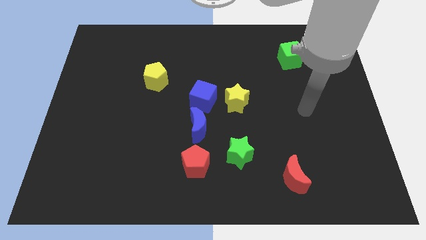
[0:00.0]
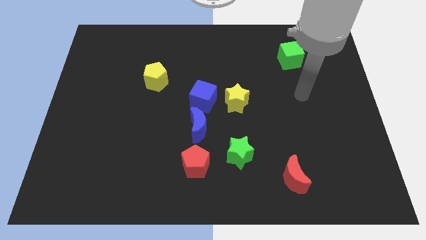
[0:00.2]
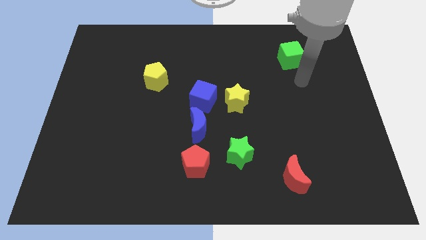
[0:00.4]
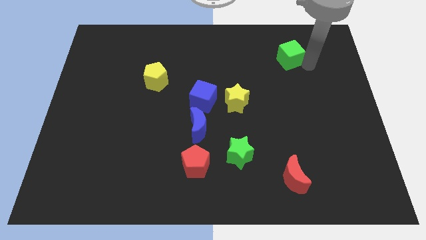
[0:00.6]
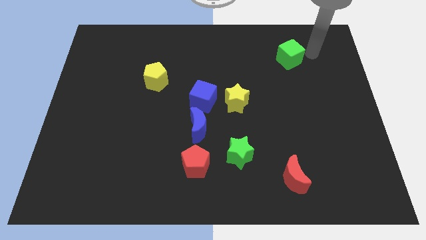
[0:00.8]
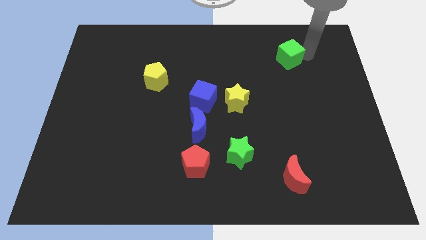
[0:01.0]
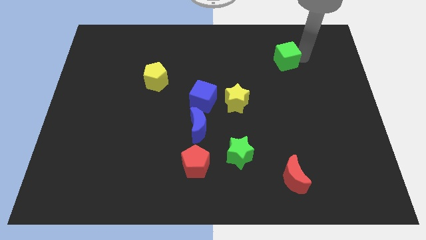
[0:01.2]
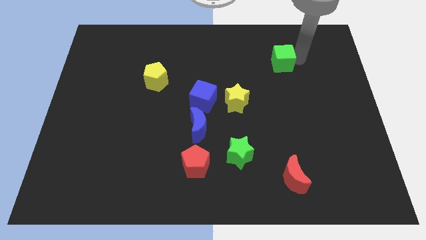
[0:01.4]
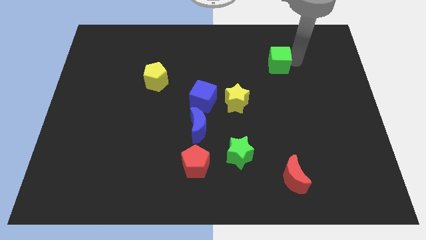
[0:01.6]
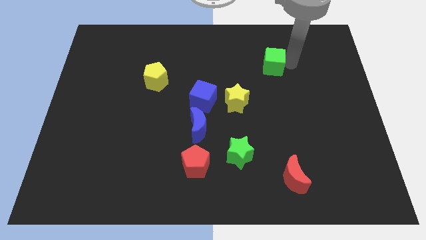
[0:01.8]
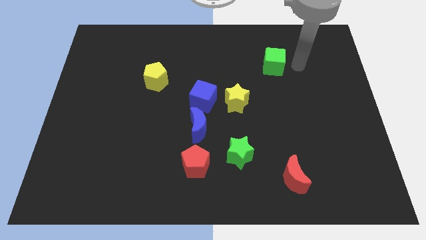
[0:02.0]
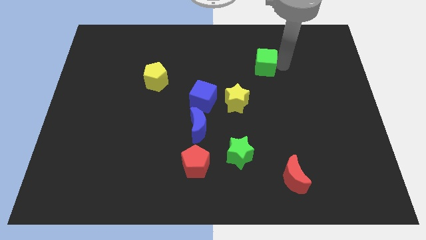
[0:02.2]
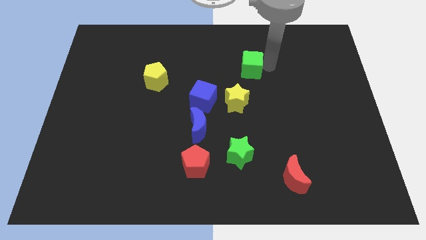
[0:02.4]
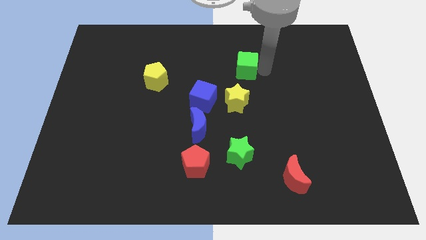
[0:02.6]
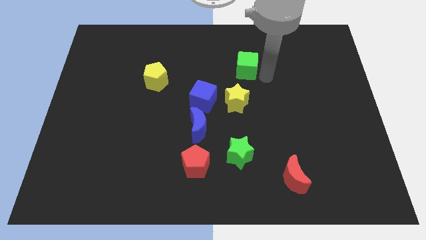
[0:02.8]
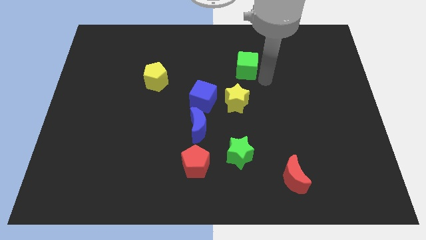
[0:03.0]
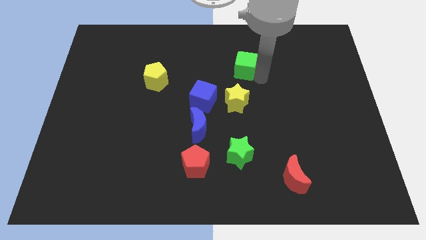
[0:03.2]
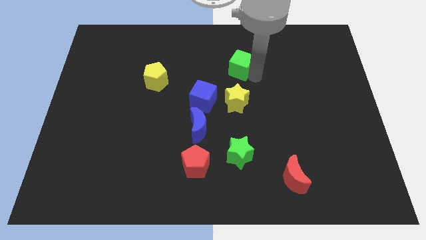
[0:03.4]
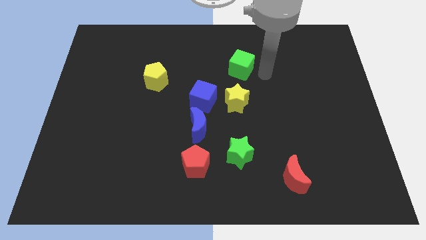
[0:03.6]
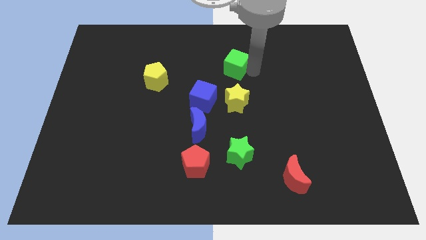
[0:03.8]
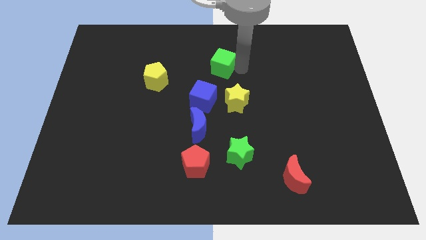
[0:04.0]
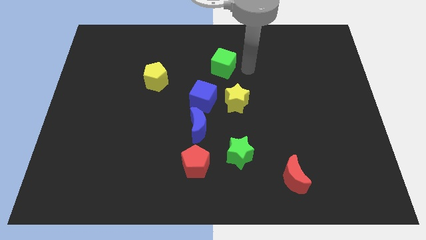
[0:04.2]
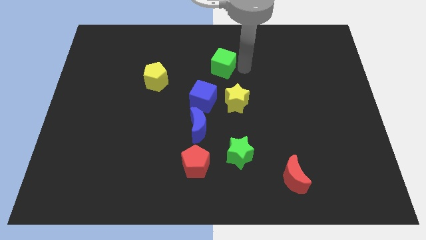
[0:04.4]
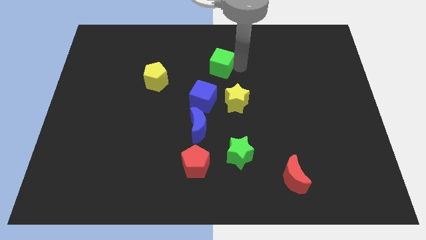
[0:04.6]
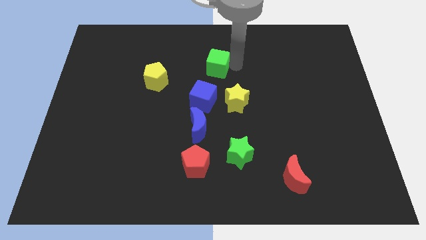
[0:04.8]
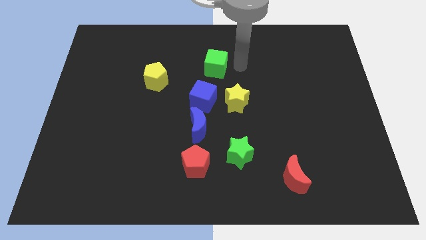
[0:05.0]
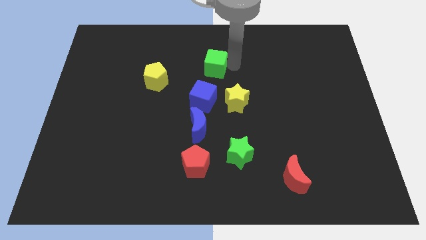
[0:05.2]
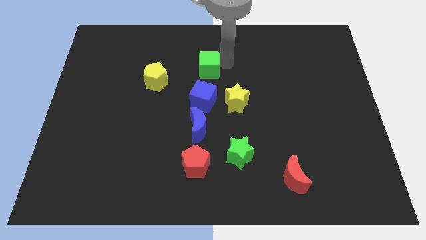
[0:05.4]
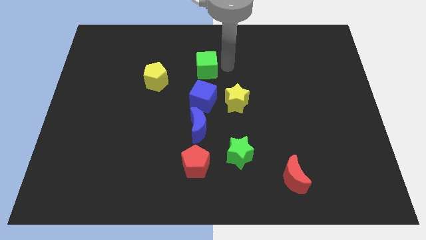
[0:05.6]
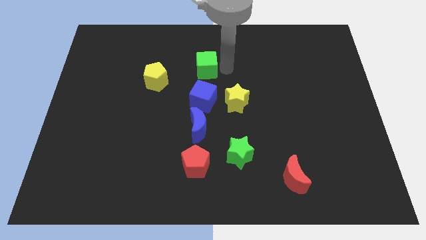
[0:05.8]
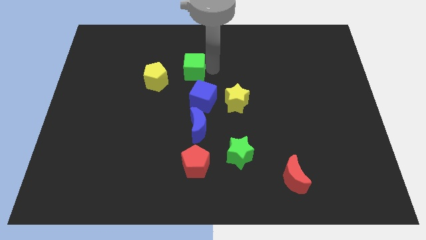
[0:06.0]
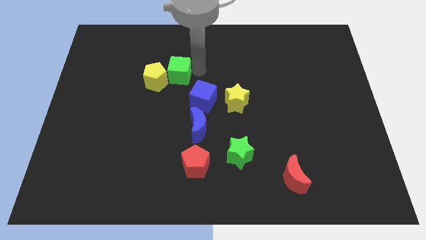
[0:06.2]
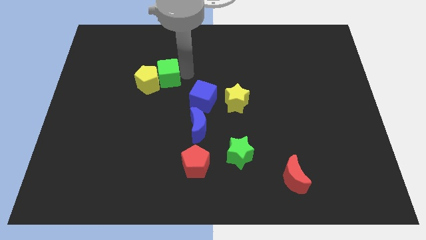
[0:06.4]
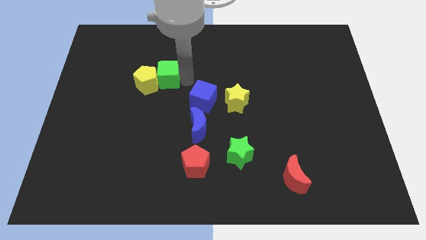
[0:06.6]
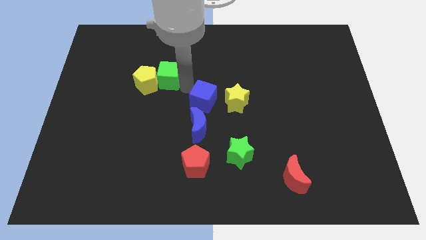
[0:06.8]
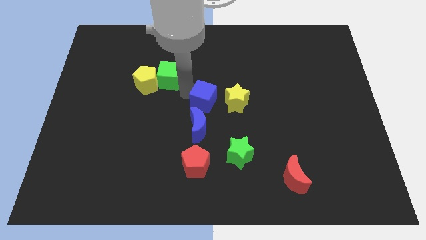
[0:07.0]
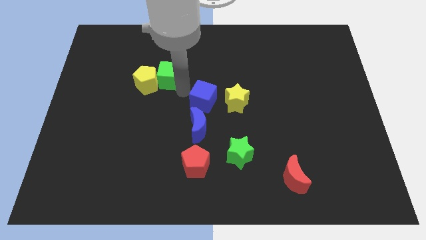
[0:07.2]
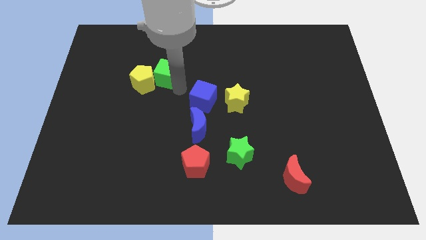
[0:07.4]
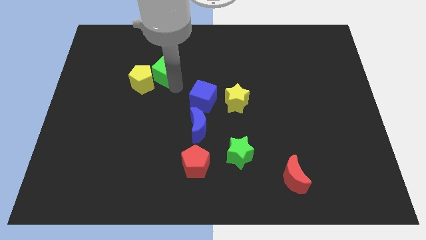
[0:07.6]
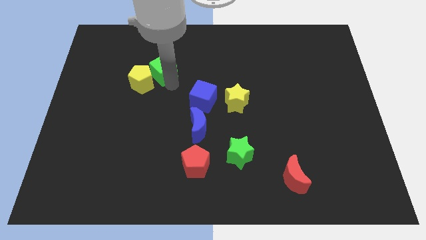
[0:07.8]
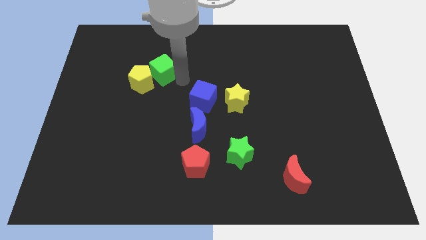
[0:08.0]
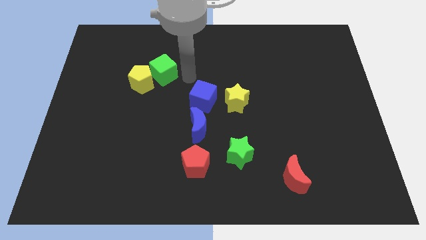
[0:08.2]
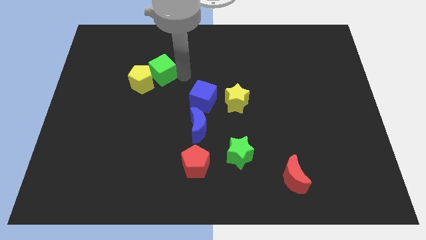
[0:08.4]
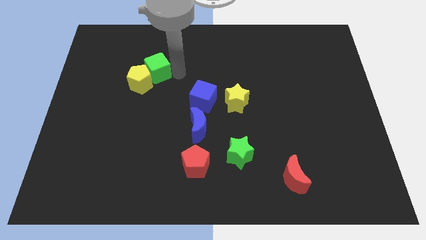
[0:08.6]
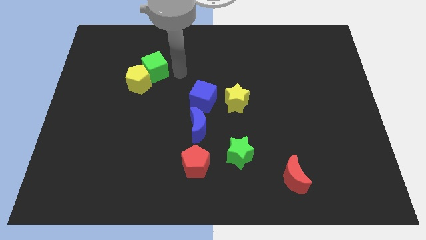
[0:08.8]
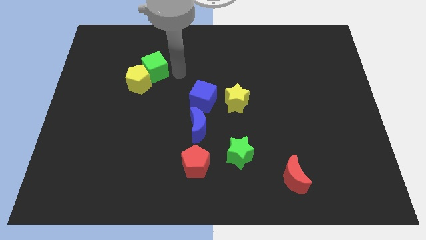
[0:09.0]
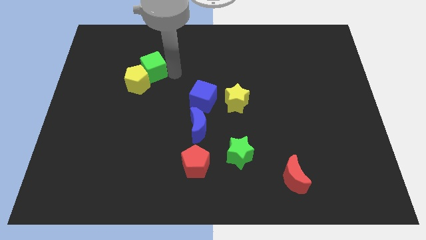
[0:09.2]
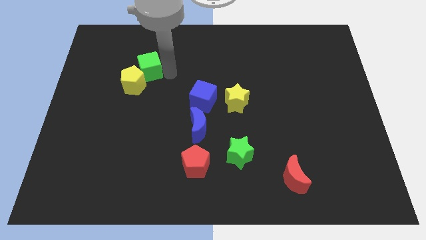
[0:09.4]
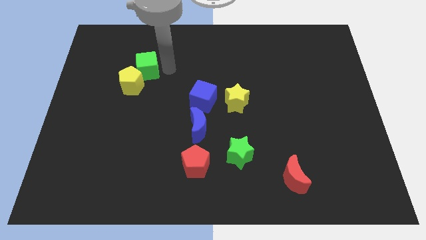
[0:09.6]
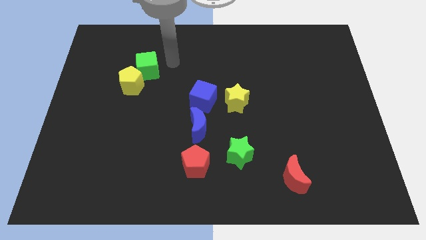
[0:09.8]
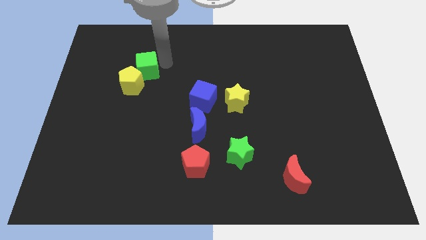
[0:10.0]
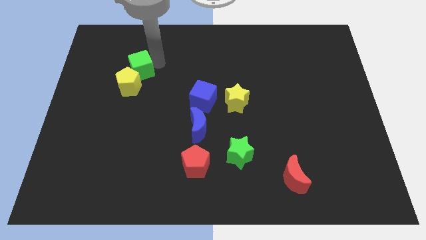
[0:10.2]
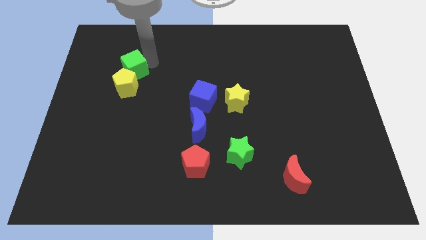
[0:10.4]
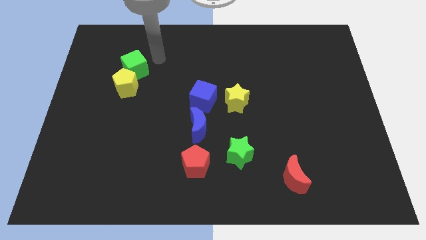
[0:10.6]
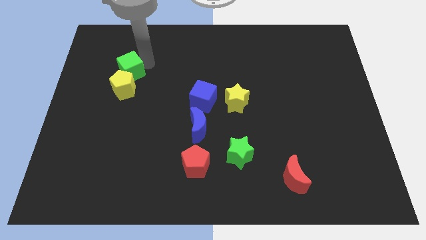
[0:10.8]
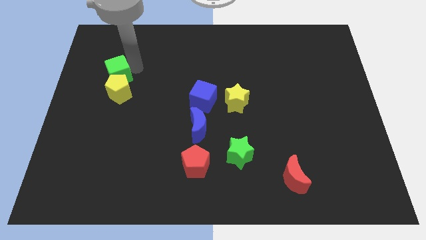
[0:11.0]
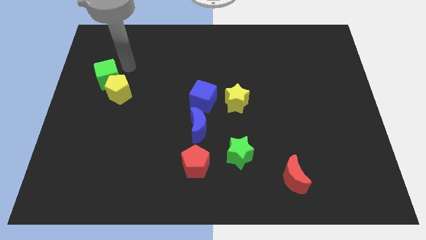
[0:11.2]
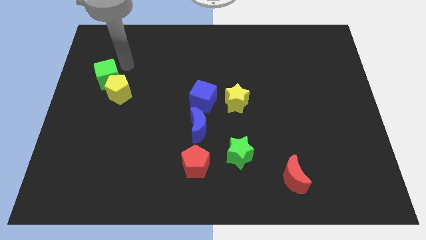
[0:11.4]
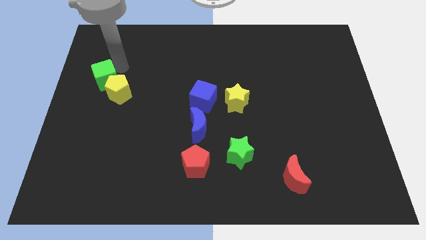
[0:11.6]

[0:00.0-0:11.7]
move the green cube to the left side of the board

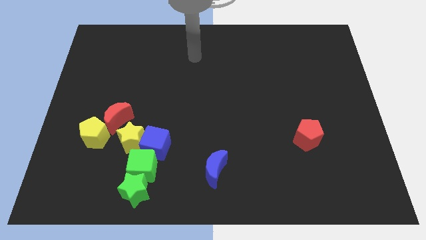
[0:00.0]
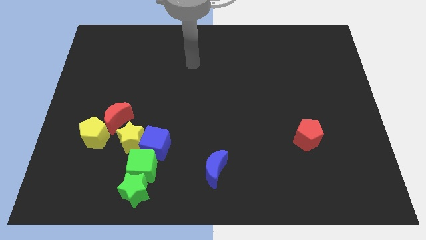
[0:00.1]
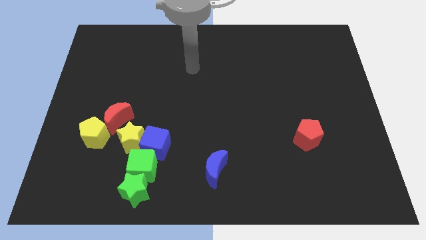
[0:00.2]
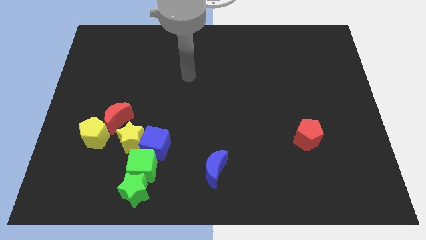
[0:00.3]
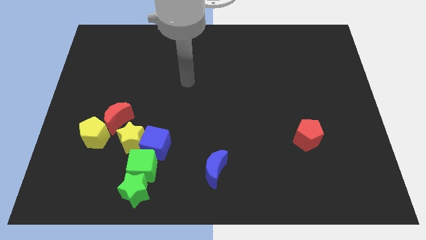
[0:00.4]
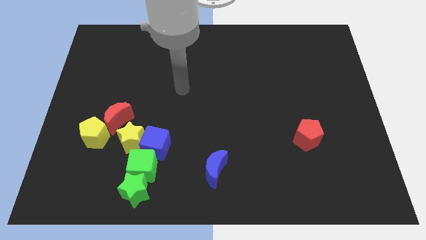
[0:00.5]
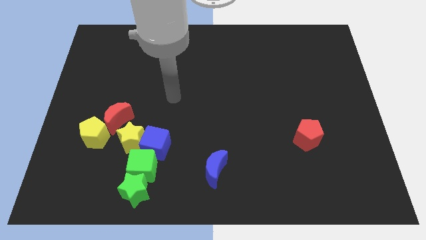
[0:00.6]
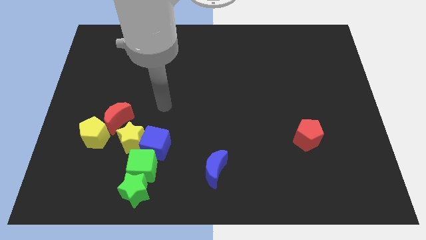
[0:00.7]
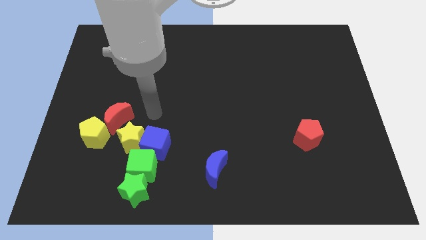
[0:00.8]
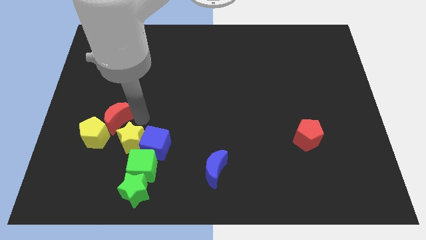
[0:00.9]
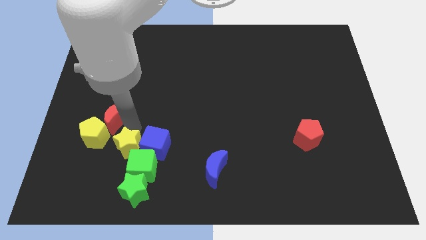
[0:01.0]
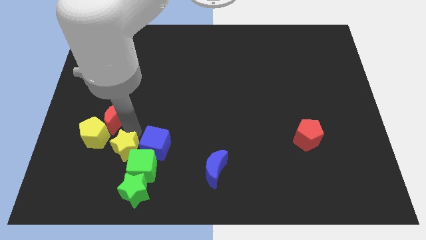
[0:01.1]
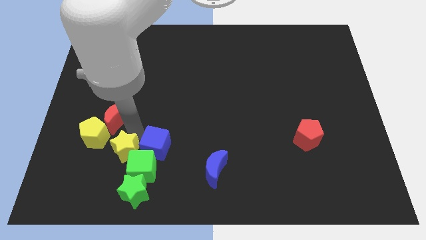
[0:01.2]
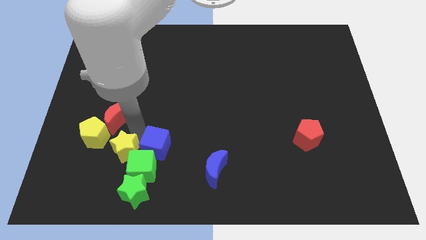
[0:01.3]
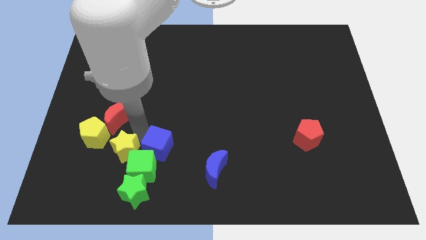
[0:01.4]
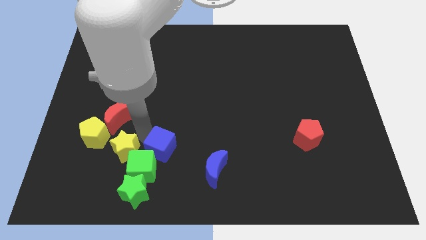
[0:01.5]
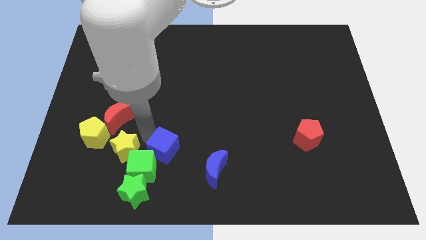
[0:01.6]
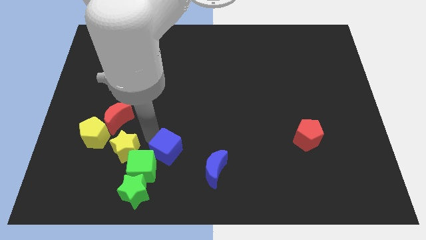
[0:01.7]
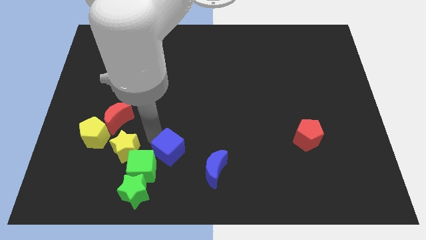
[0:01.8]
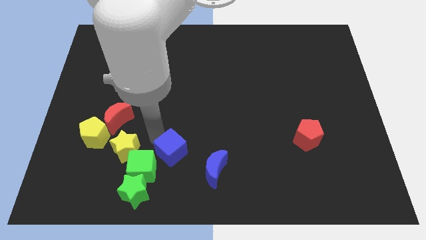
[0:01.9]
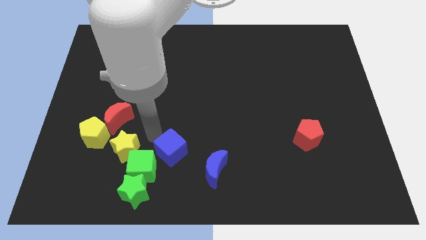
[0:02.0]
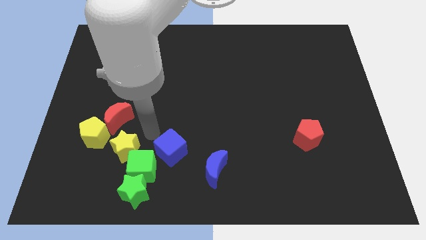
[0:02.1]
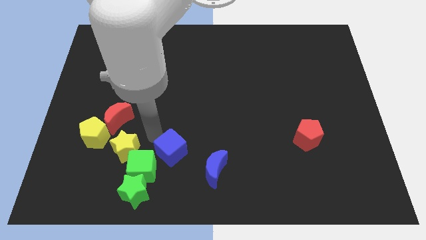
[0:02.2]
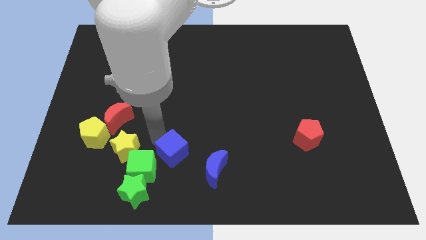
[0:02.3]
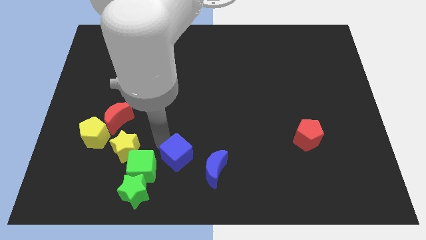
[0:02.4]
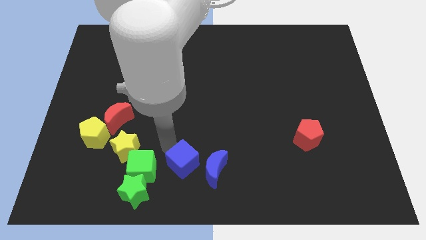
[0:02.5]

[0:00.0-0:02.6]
push the blue cube to the bottom
